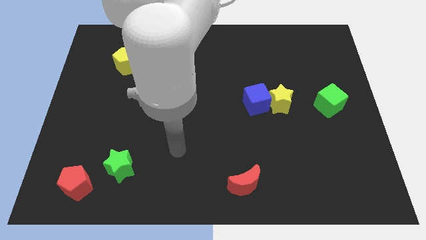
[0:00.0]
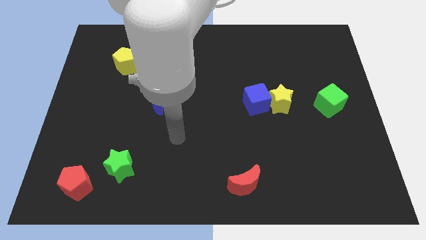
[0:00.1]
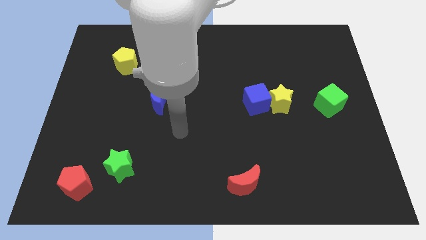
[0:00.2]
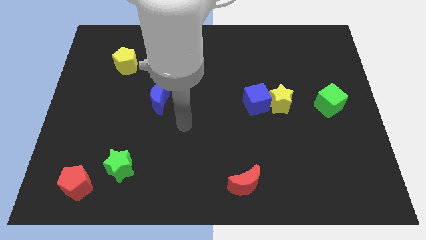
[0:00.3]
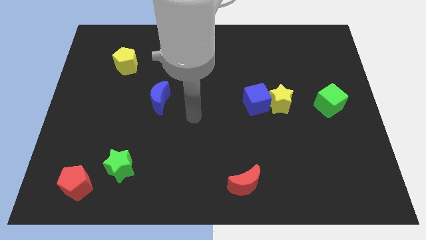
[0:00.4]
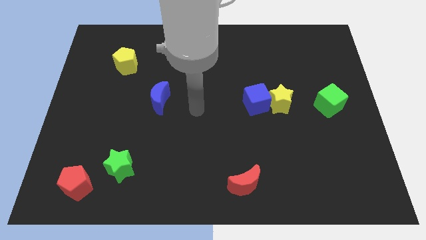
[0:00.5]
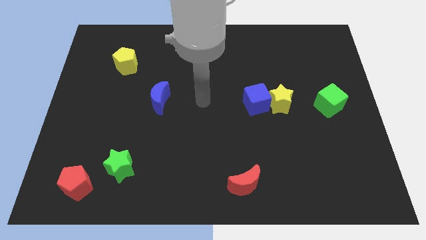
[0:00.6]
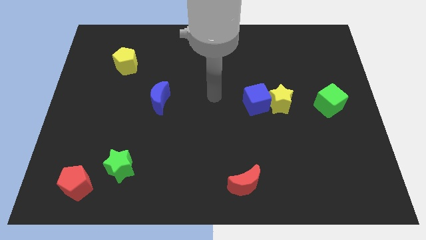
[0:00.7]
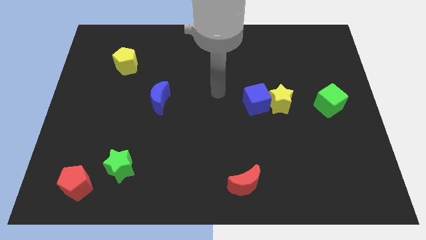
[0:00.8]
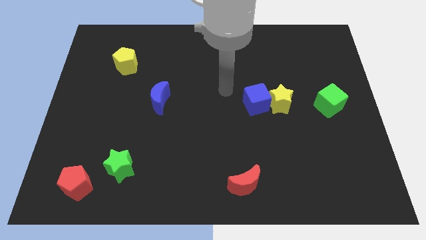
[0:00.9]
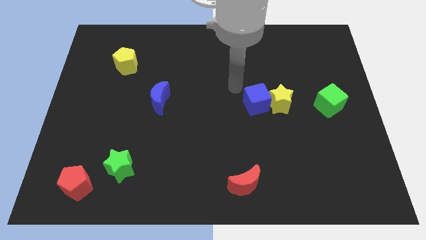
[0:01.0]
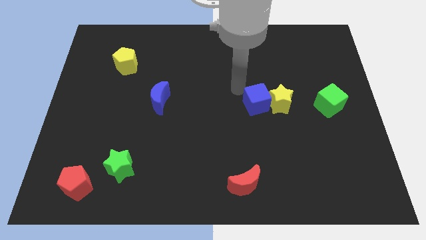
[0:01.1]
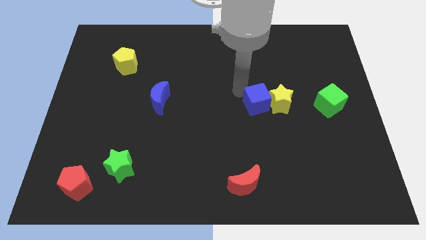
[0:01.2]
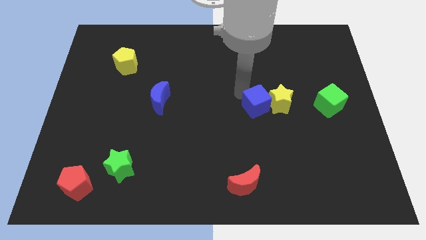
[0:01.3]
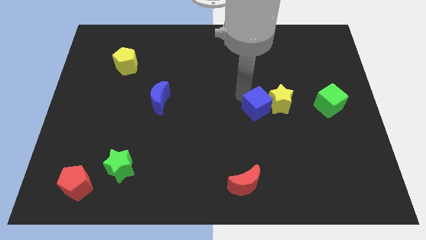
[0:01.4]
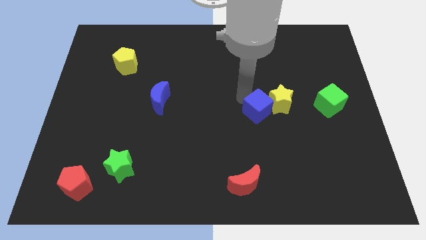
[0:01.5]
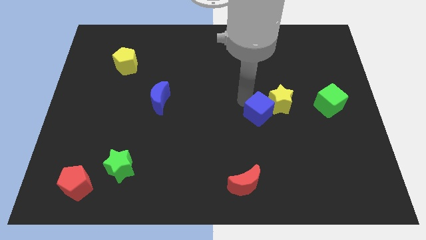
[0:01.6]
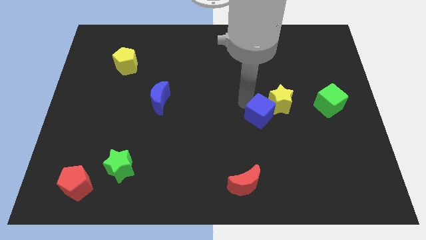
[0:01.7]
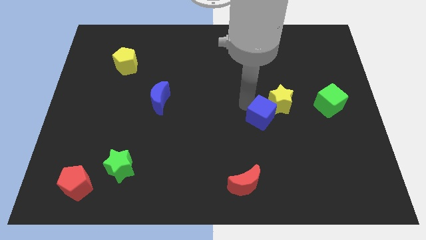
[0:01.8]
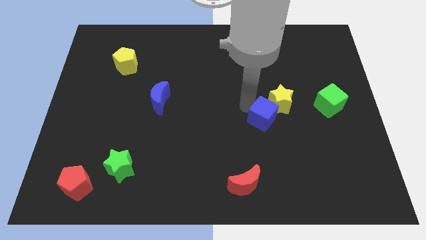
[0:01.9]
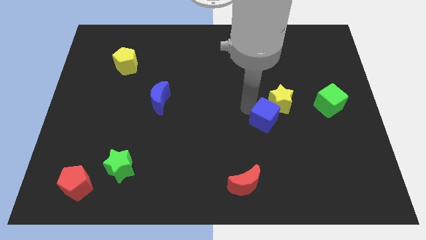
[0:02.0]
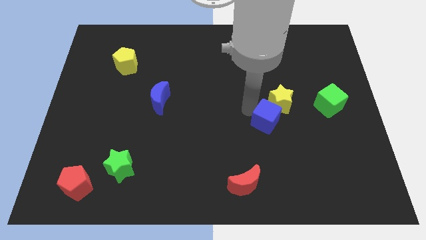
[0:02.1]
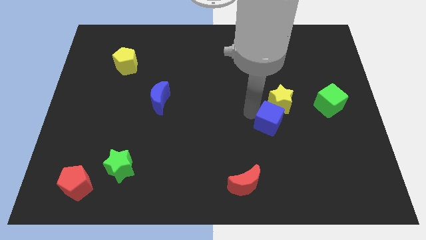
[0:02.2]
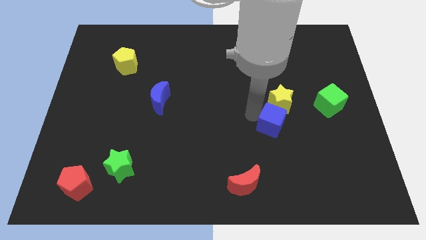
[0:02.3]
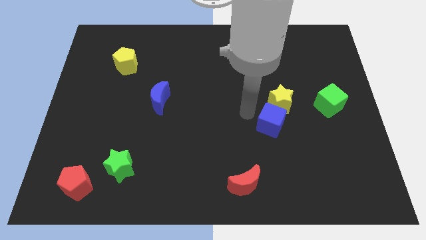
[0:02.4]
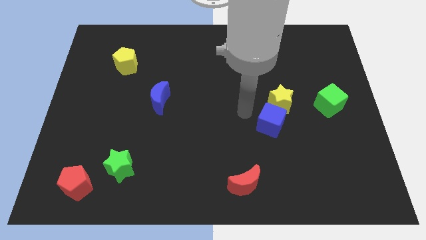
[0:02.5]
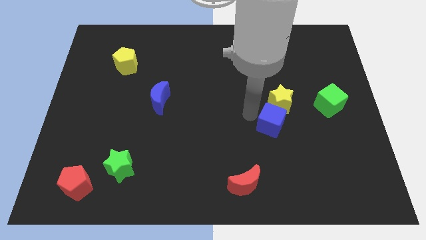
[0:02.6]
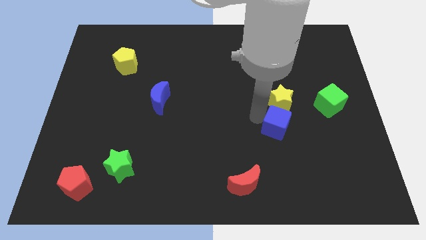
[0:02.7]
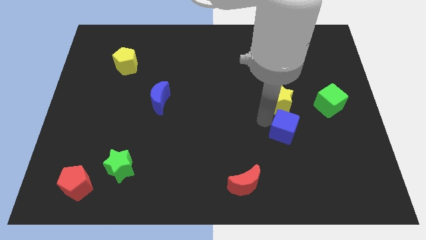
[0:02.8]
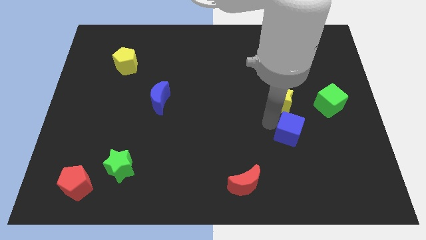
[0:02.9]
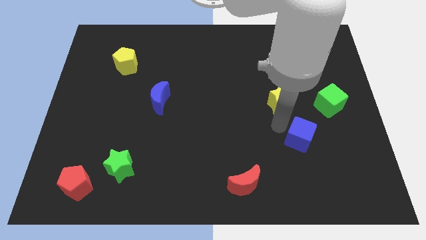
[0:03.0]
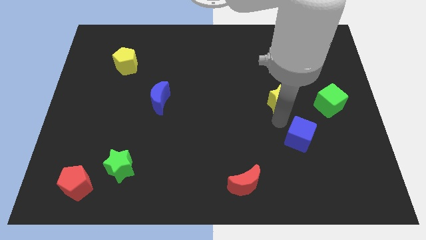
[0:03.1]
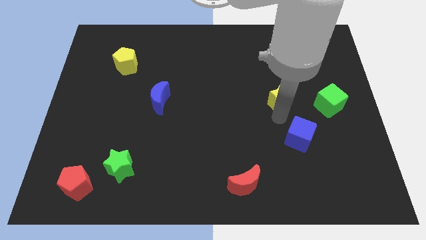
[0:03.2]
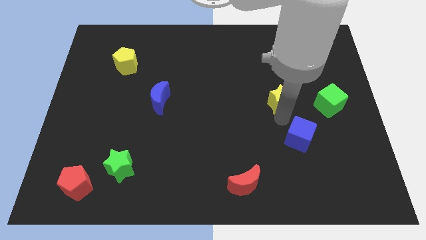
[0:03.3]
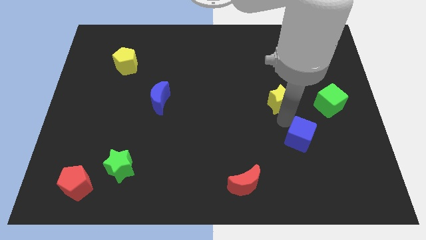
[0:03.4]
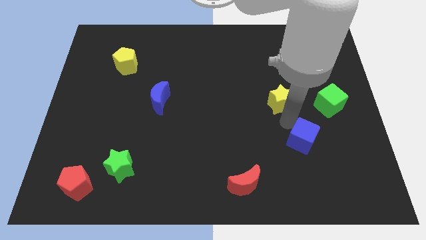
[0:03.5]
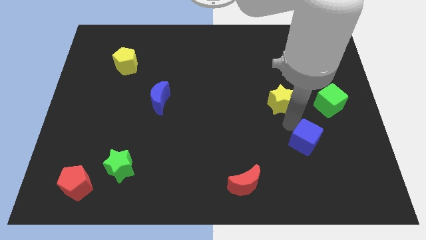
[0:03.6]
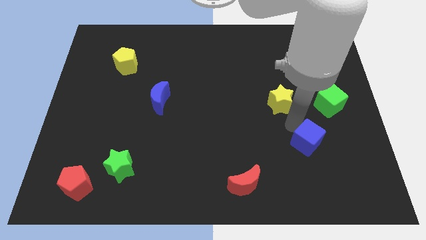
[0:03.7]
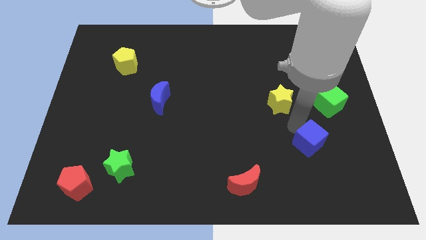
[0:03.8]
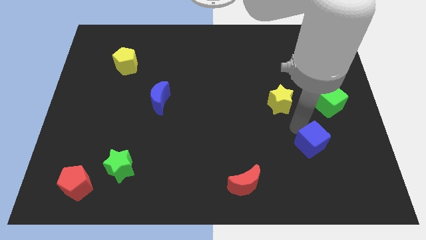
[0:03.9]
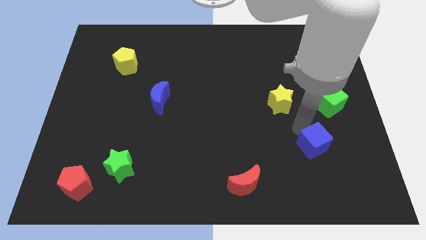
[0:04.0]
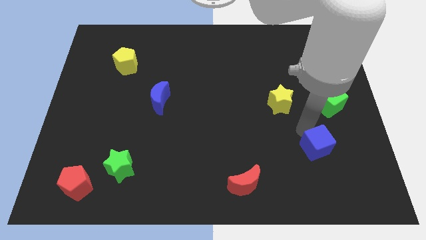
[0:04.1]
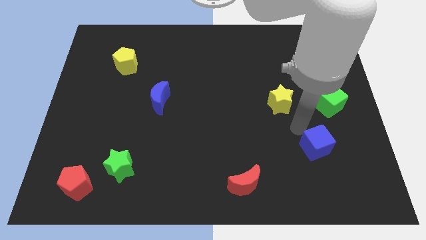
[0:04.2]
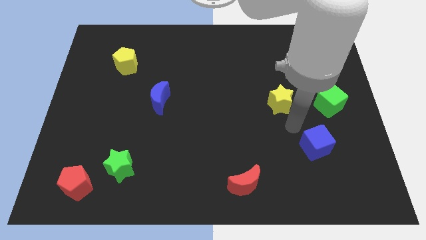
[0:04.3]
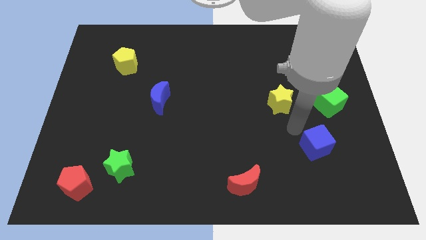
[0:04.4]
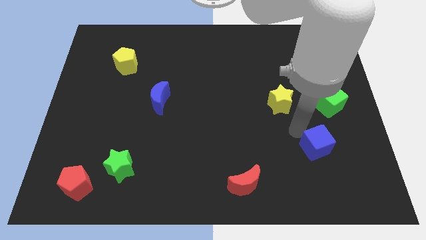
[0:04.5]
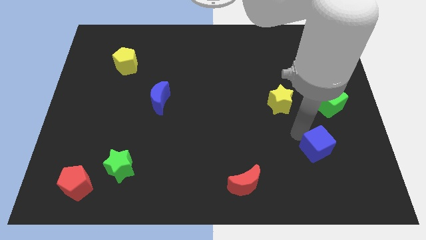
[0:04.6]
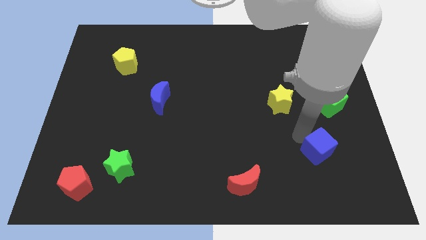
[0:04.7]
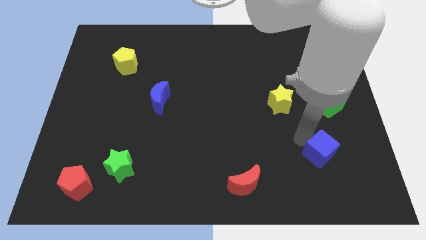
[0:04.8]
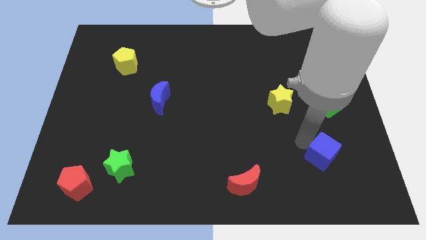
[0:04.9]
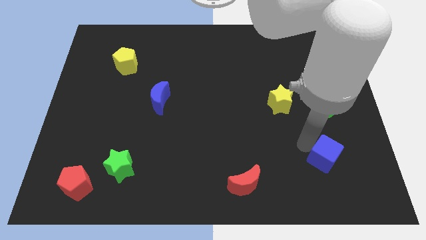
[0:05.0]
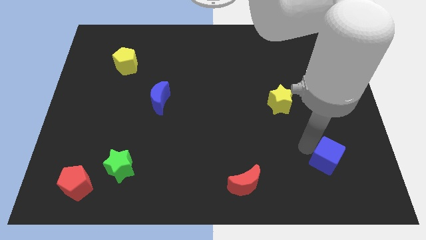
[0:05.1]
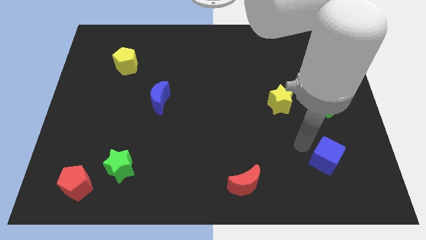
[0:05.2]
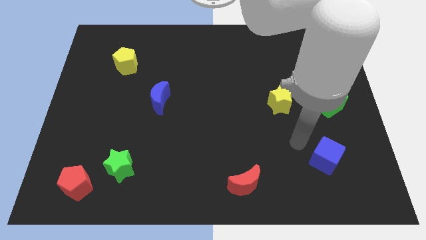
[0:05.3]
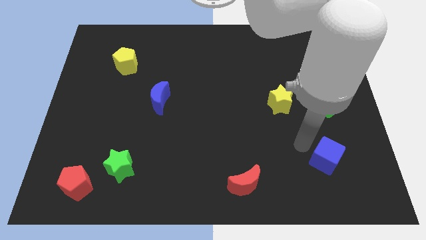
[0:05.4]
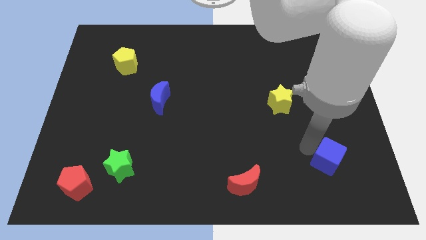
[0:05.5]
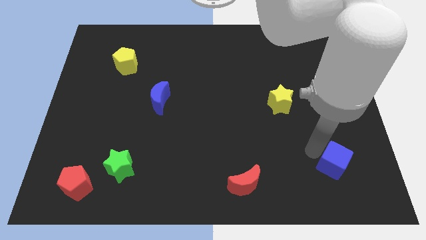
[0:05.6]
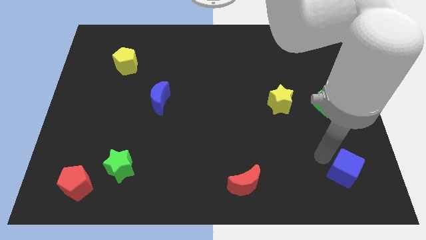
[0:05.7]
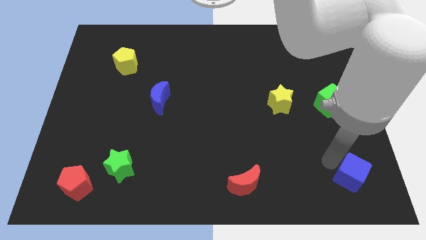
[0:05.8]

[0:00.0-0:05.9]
move the blue cube to the lower right corner
